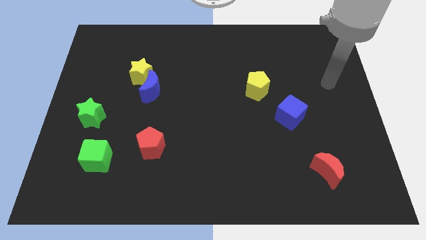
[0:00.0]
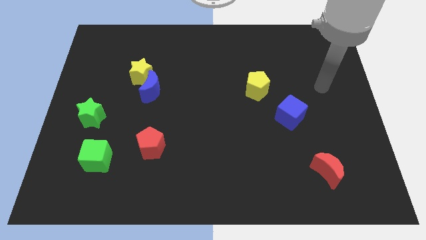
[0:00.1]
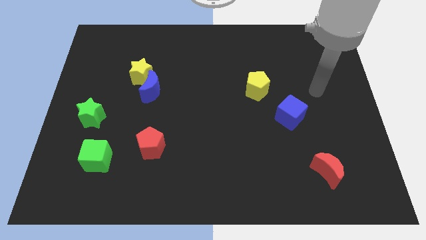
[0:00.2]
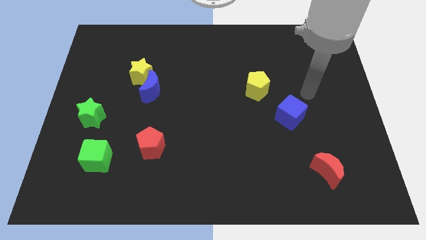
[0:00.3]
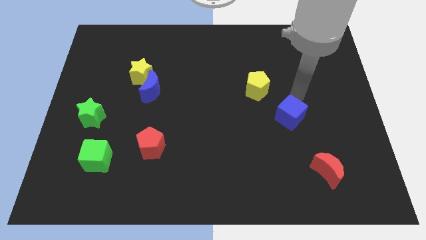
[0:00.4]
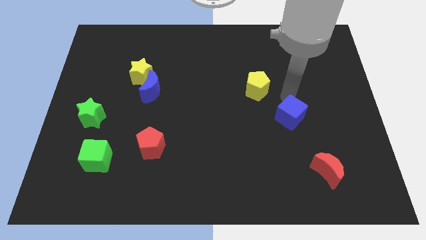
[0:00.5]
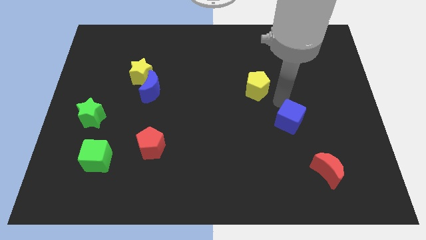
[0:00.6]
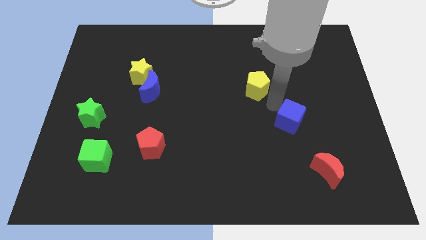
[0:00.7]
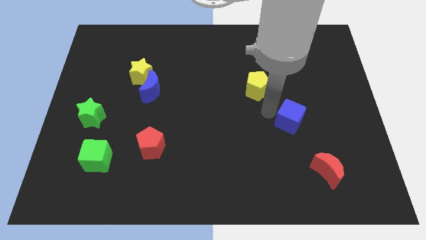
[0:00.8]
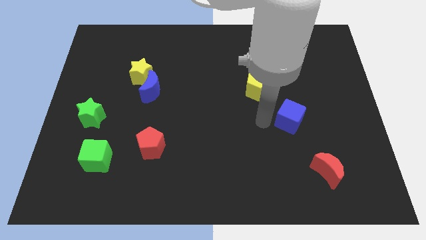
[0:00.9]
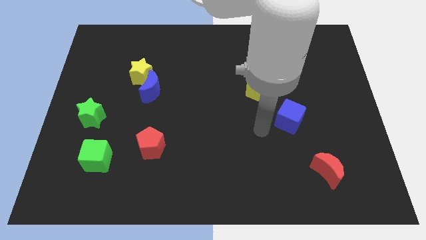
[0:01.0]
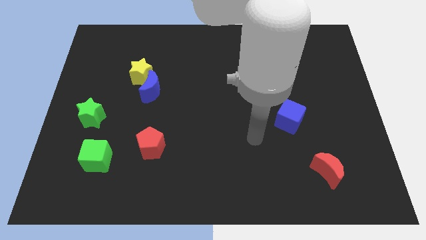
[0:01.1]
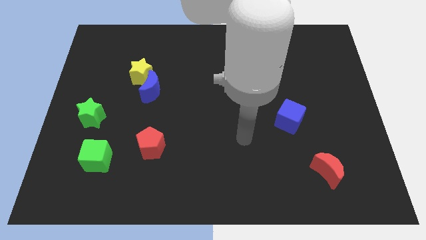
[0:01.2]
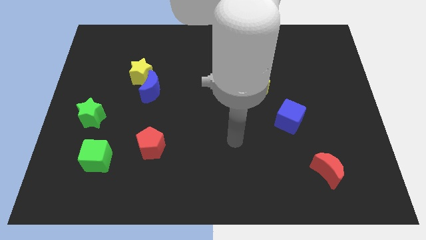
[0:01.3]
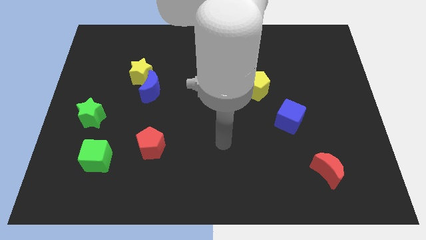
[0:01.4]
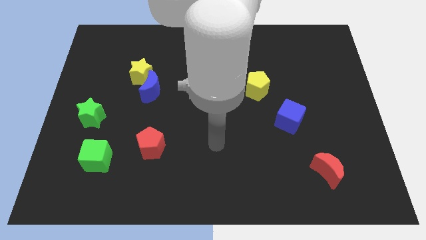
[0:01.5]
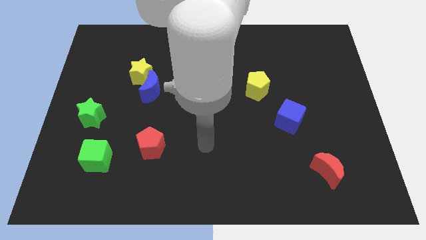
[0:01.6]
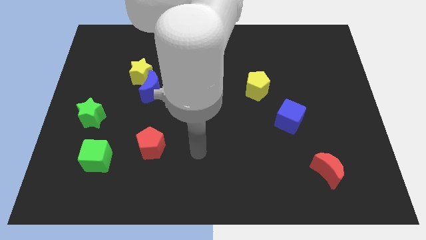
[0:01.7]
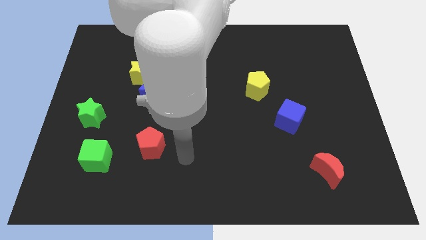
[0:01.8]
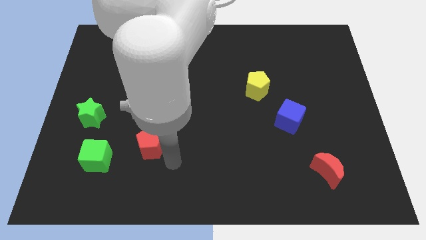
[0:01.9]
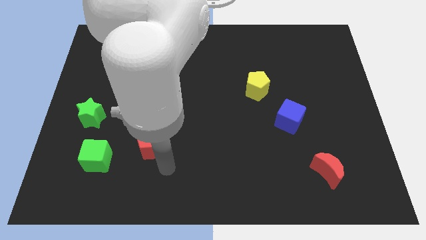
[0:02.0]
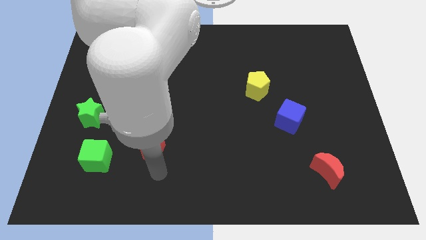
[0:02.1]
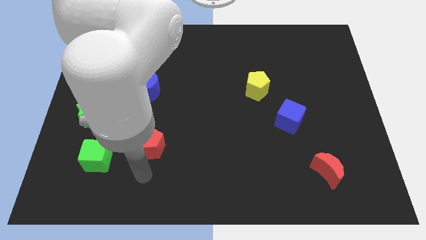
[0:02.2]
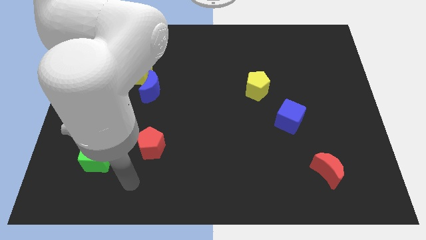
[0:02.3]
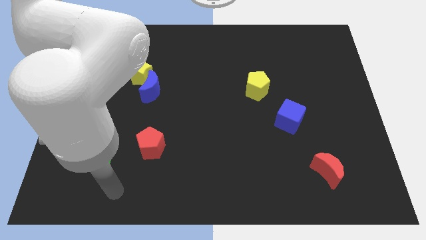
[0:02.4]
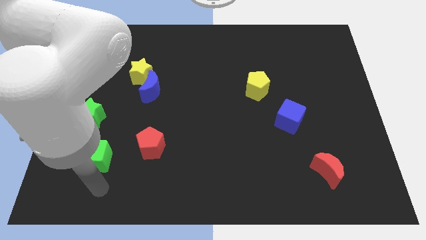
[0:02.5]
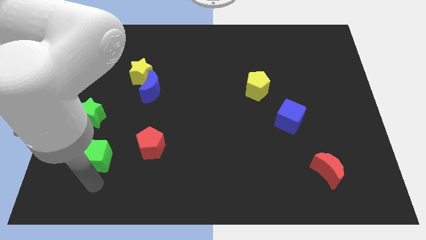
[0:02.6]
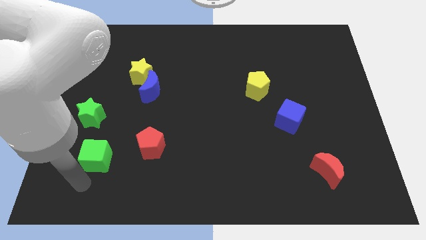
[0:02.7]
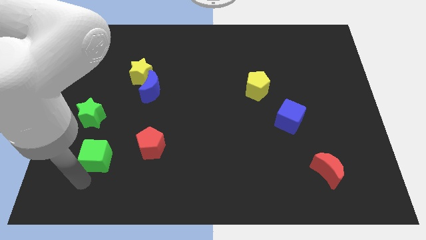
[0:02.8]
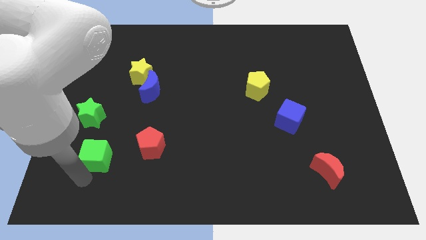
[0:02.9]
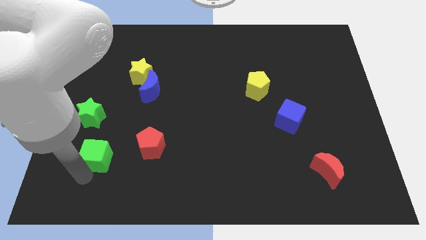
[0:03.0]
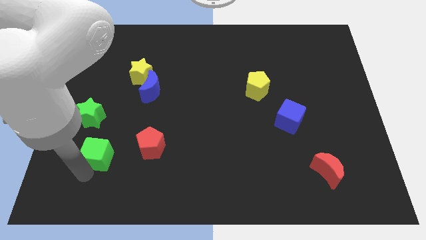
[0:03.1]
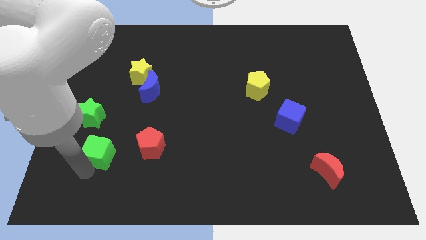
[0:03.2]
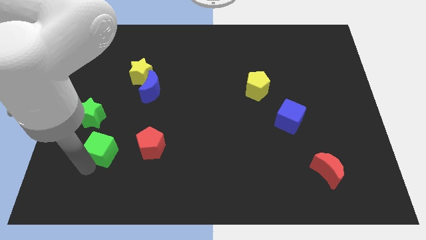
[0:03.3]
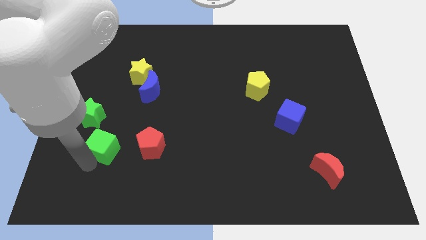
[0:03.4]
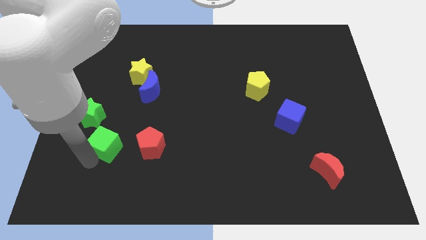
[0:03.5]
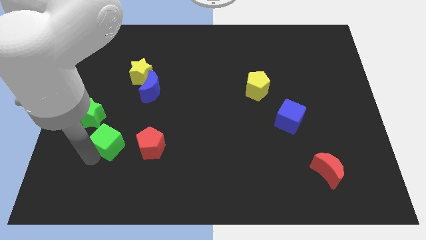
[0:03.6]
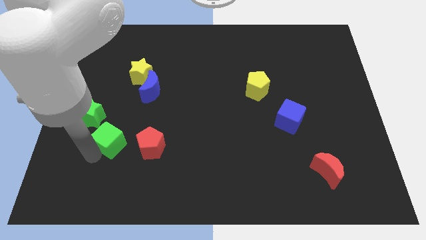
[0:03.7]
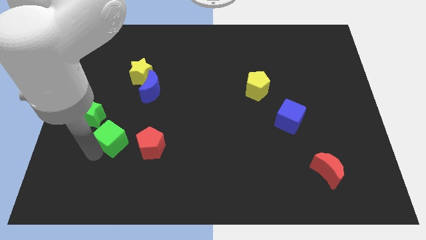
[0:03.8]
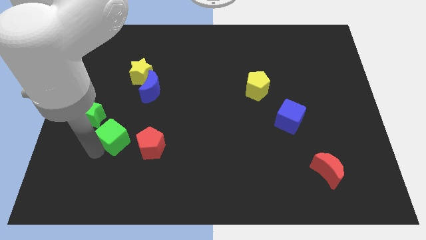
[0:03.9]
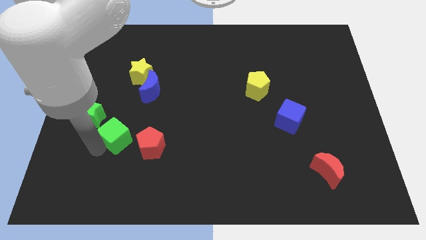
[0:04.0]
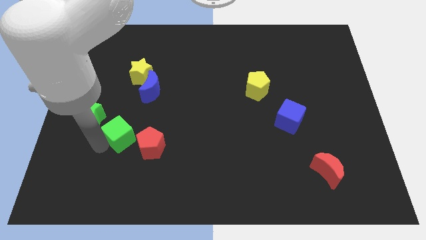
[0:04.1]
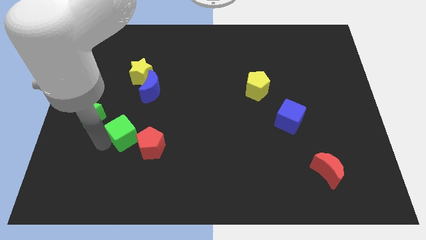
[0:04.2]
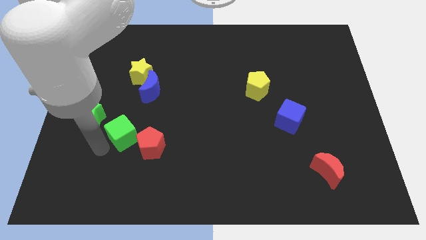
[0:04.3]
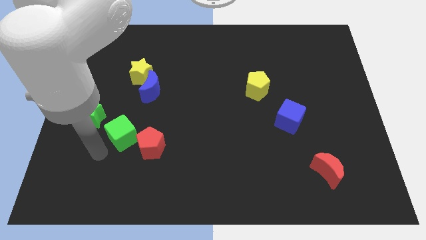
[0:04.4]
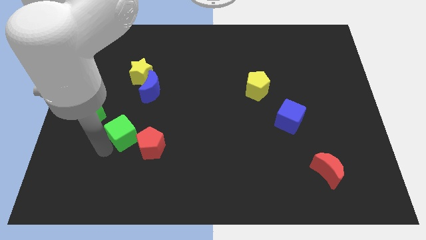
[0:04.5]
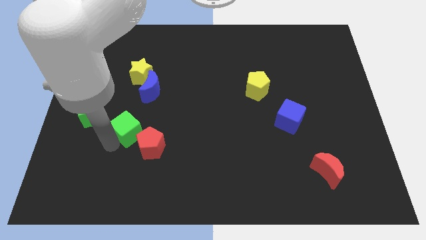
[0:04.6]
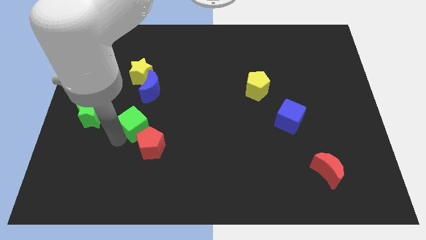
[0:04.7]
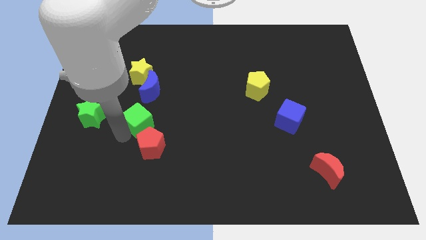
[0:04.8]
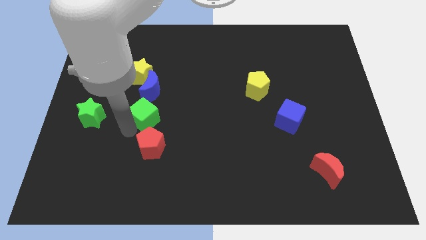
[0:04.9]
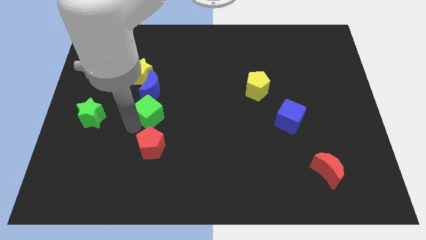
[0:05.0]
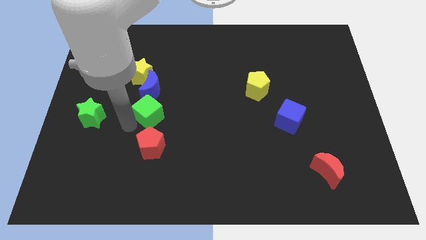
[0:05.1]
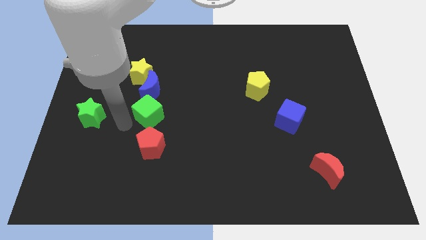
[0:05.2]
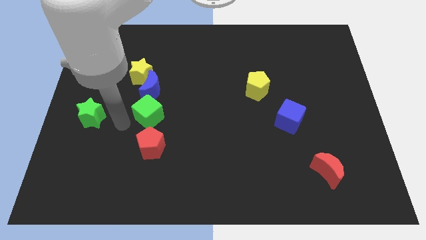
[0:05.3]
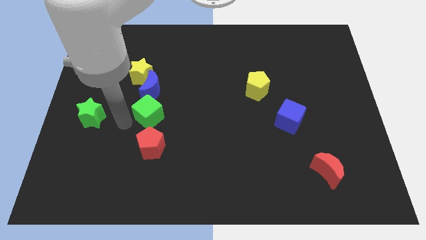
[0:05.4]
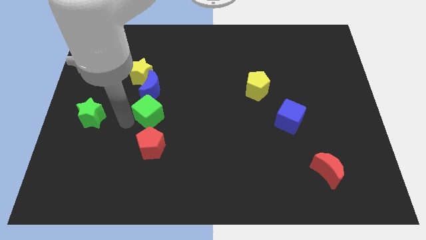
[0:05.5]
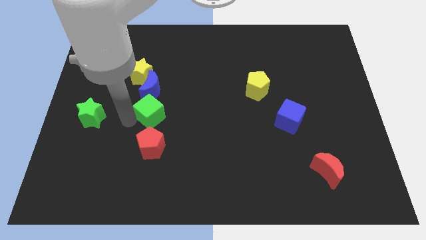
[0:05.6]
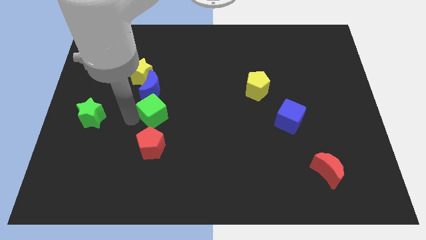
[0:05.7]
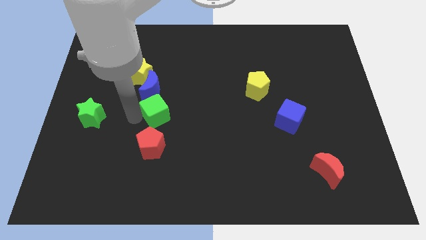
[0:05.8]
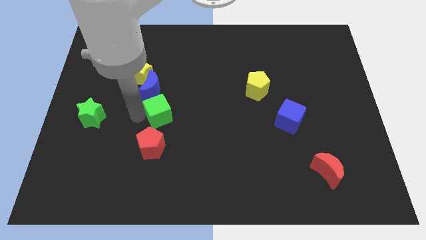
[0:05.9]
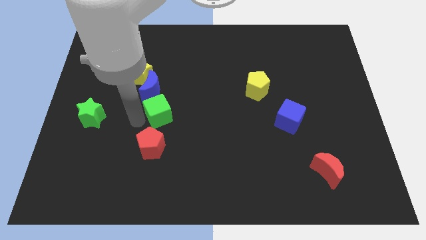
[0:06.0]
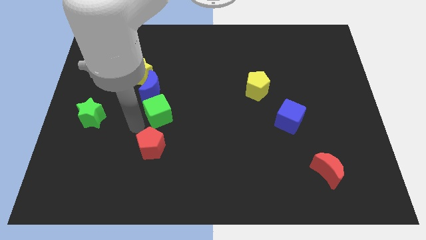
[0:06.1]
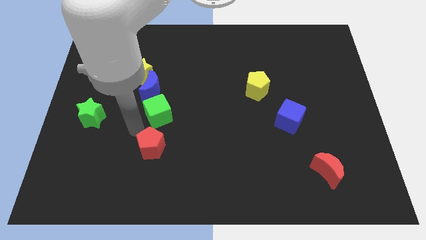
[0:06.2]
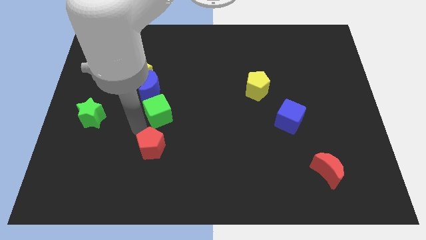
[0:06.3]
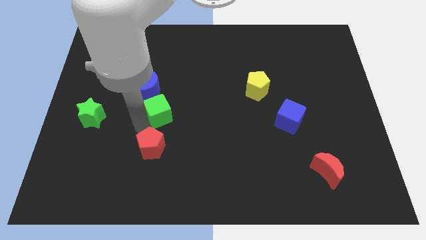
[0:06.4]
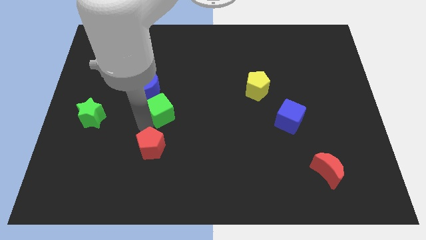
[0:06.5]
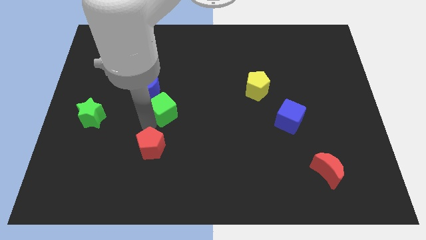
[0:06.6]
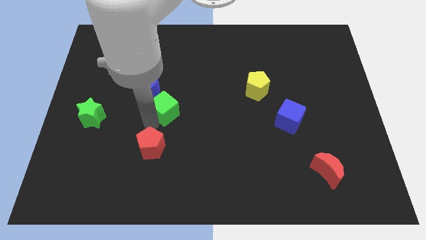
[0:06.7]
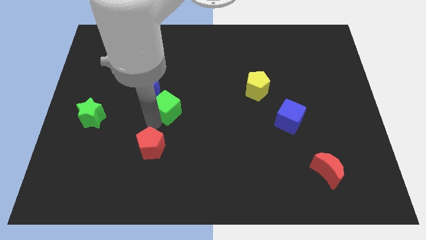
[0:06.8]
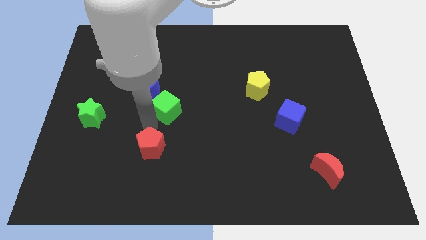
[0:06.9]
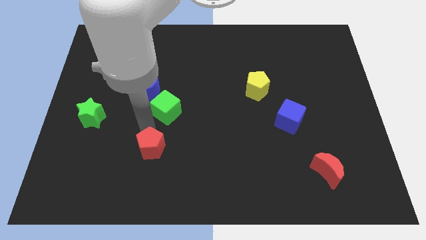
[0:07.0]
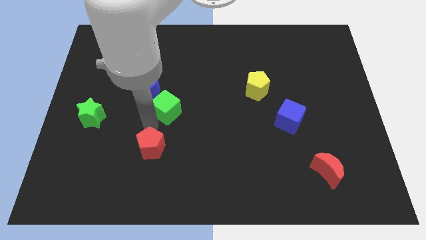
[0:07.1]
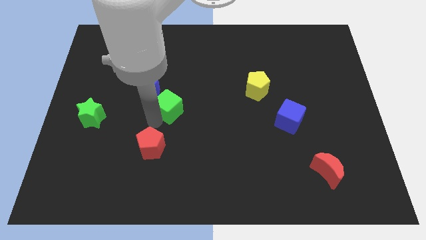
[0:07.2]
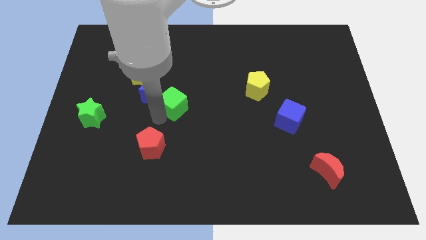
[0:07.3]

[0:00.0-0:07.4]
move the green cube just right of the blue moon

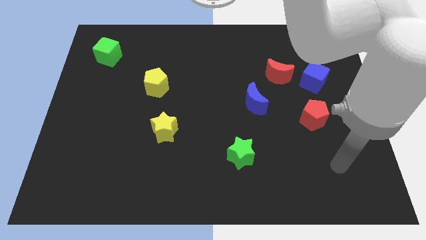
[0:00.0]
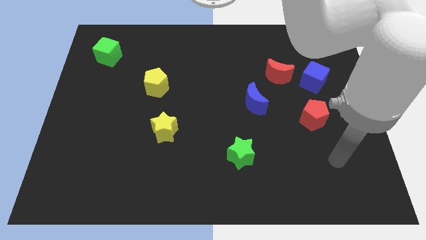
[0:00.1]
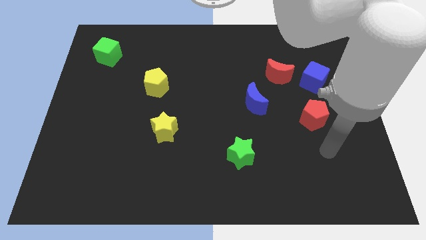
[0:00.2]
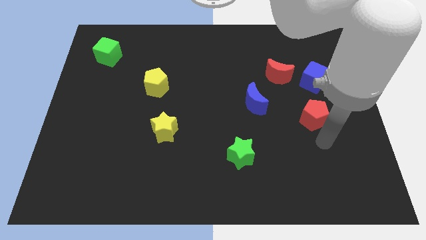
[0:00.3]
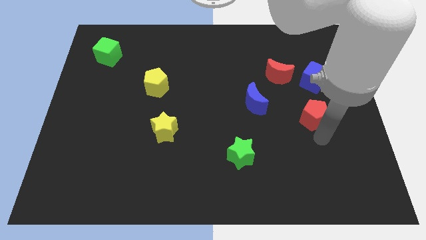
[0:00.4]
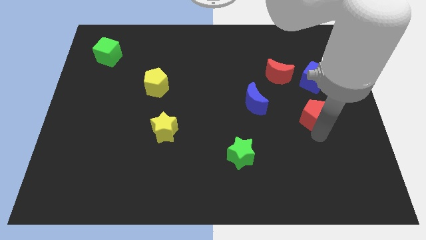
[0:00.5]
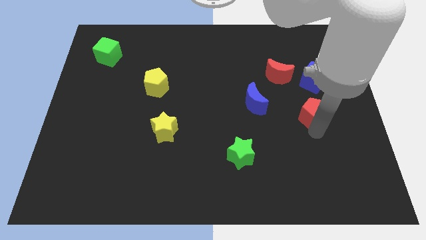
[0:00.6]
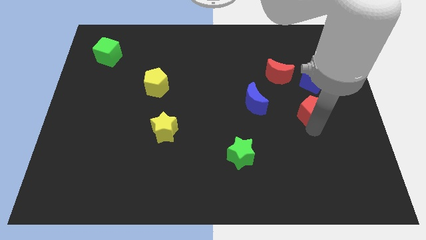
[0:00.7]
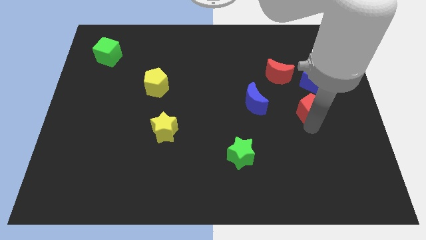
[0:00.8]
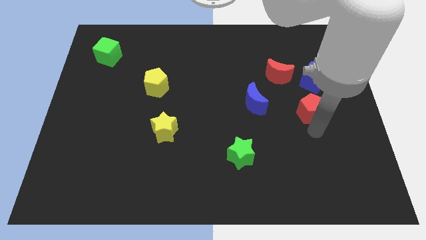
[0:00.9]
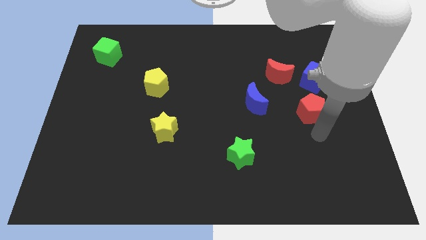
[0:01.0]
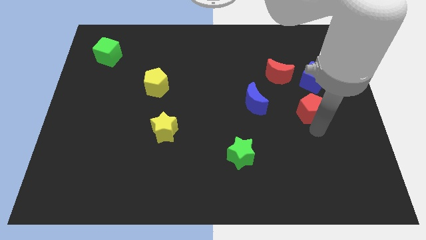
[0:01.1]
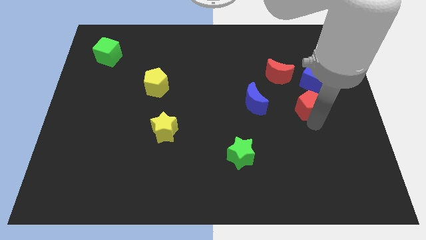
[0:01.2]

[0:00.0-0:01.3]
move the red pentagon to the bottom right side of the red moon
